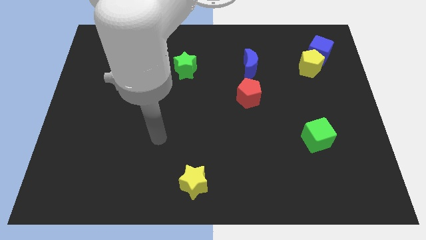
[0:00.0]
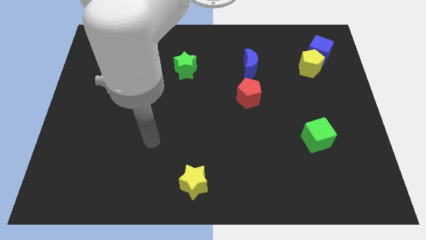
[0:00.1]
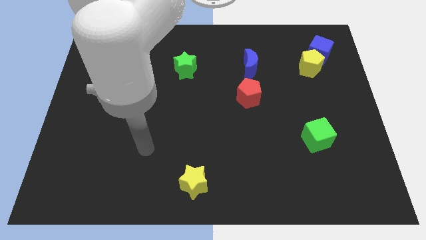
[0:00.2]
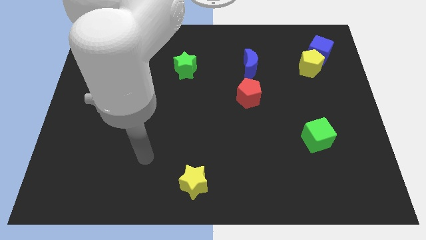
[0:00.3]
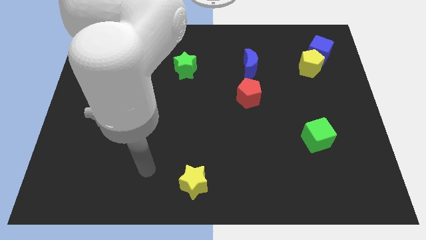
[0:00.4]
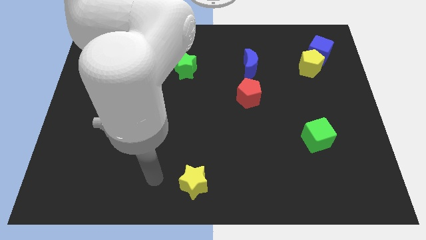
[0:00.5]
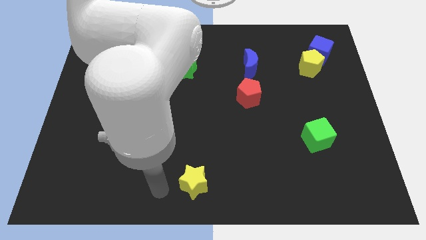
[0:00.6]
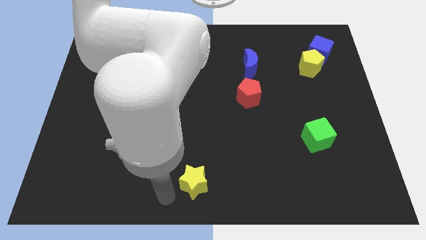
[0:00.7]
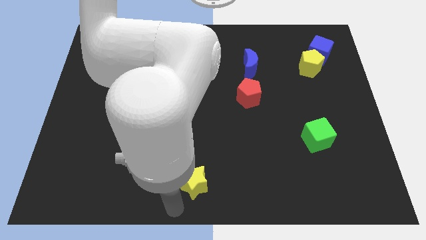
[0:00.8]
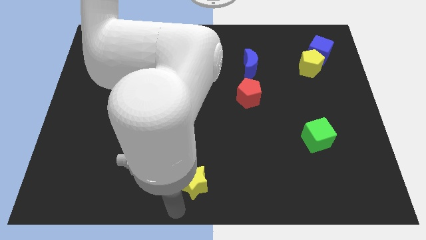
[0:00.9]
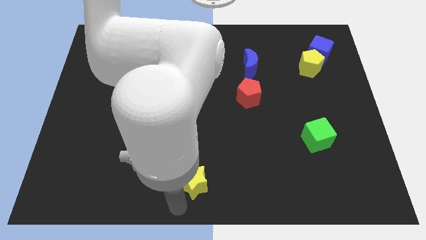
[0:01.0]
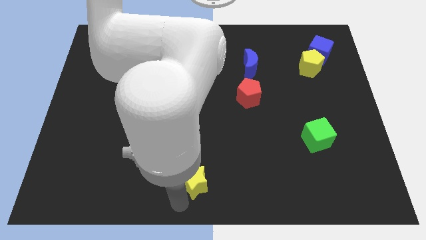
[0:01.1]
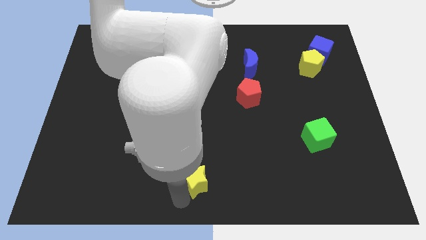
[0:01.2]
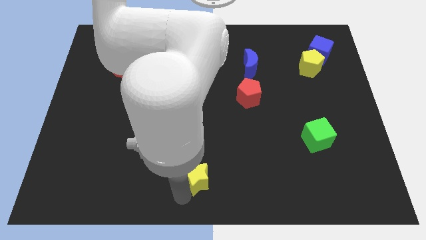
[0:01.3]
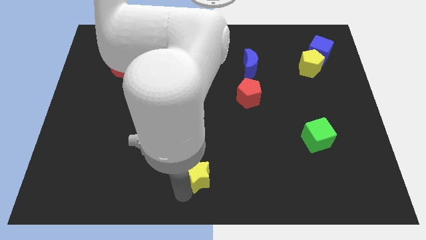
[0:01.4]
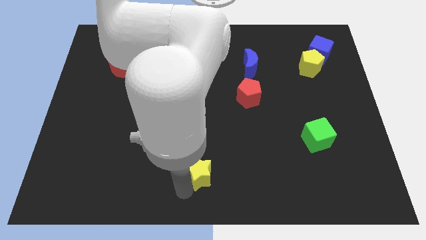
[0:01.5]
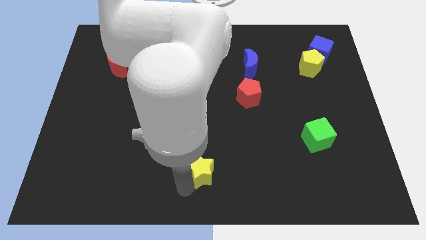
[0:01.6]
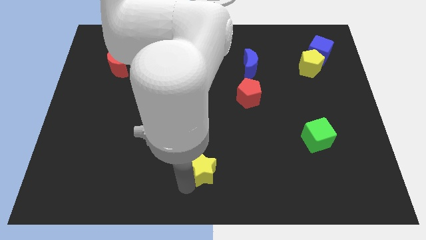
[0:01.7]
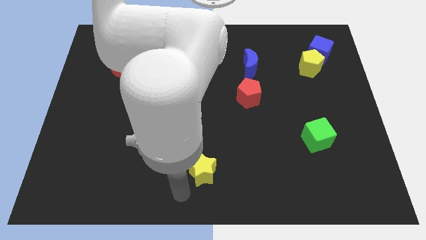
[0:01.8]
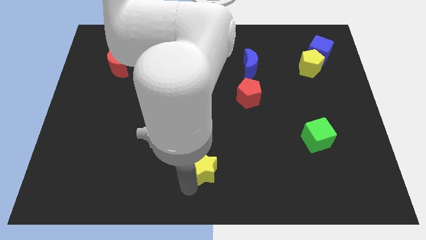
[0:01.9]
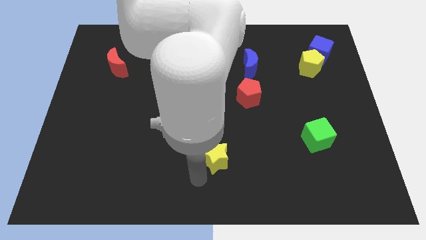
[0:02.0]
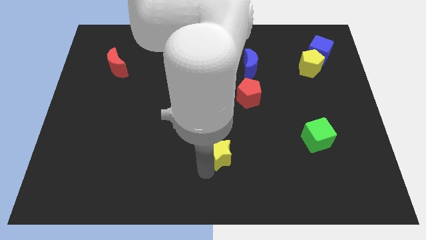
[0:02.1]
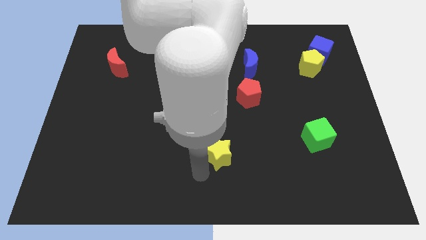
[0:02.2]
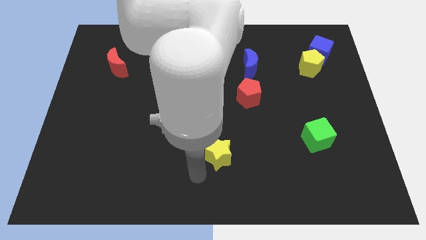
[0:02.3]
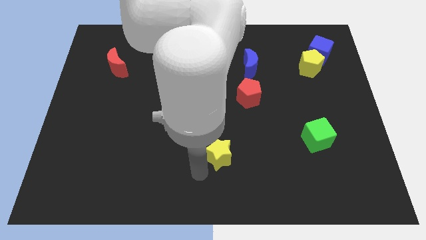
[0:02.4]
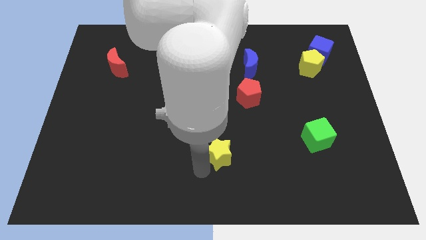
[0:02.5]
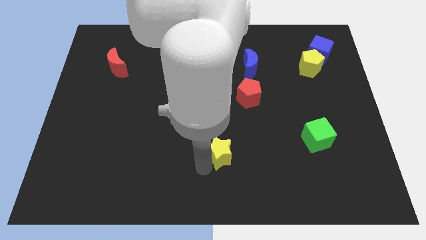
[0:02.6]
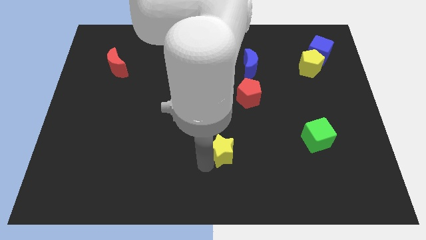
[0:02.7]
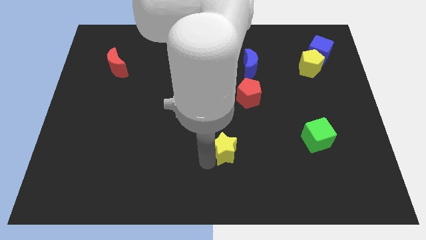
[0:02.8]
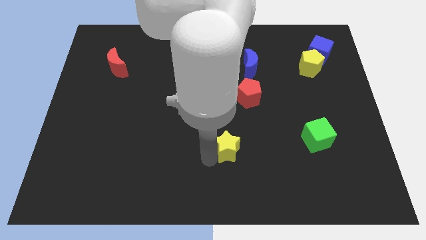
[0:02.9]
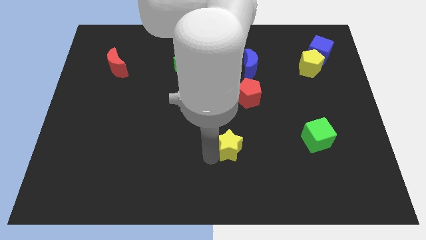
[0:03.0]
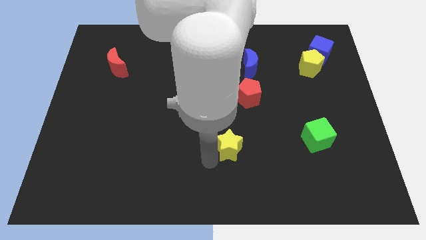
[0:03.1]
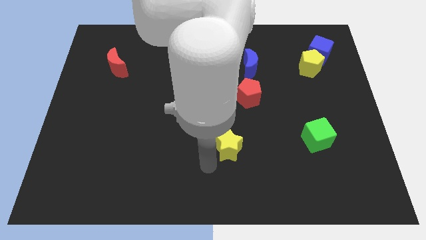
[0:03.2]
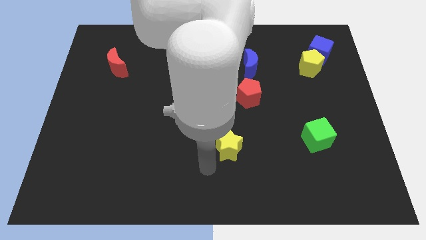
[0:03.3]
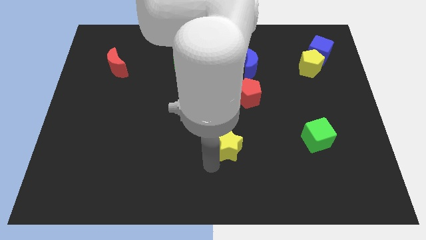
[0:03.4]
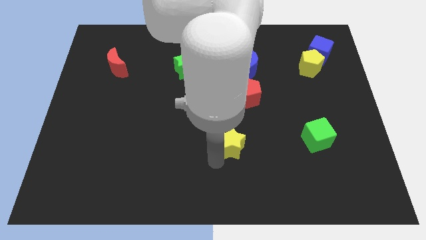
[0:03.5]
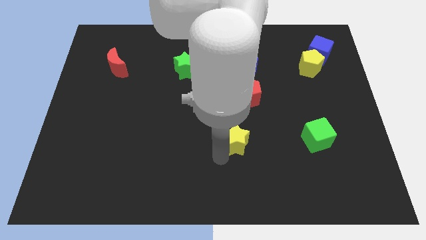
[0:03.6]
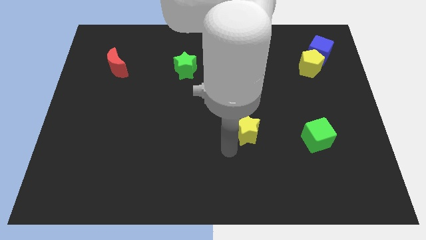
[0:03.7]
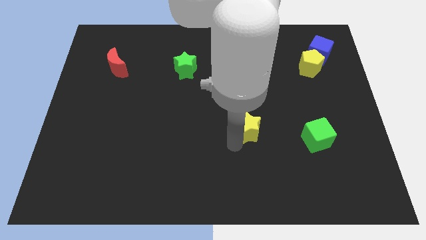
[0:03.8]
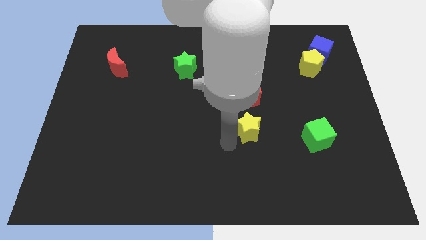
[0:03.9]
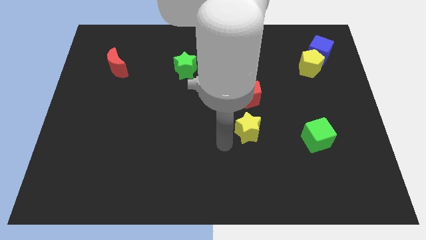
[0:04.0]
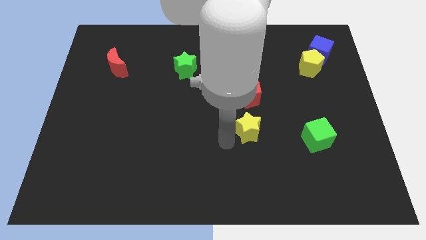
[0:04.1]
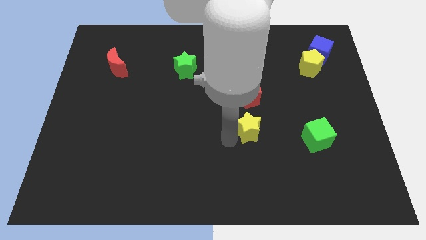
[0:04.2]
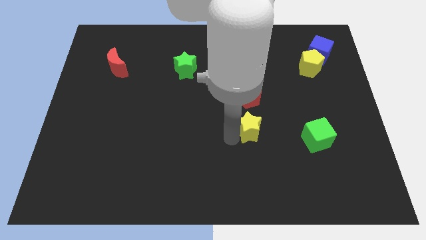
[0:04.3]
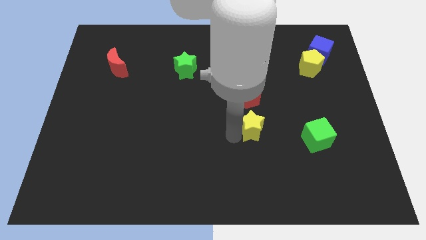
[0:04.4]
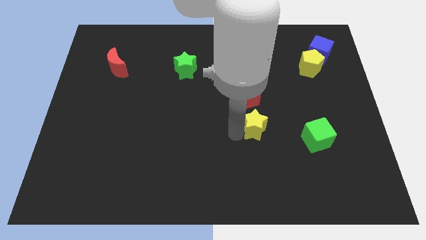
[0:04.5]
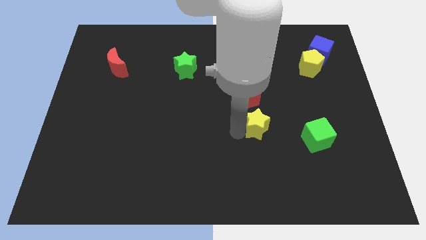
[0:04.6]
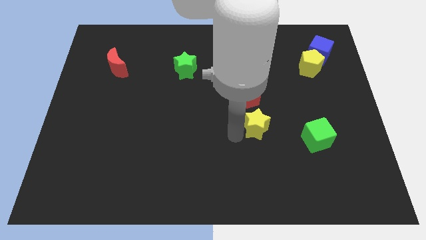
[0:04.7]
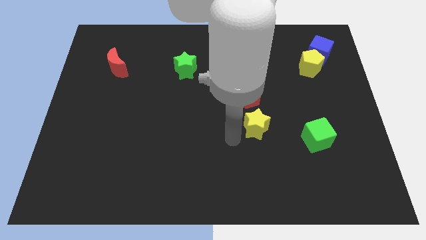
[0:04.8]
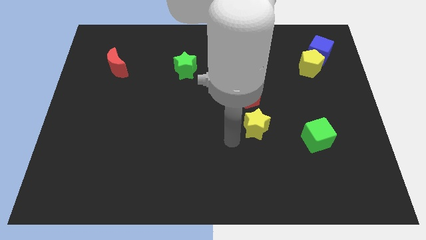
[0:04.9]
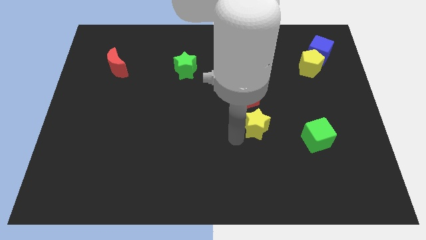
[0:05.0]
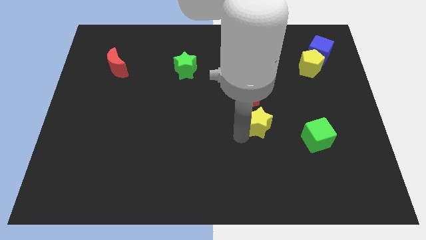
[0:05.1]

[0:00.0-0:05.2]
push the yellow star upwards and then right

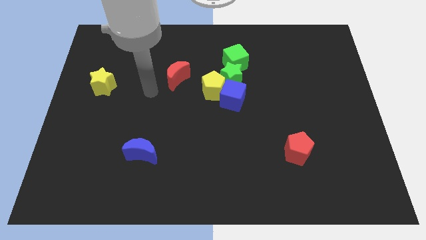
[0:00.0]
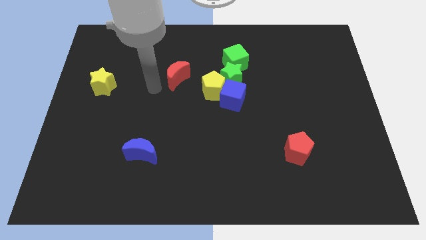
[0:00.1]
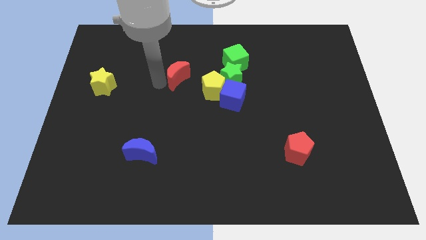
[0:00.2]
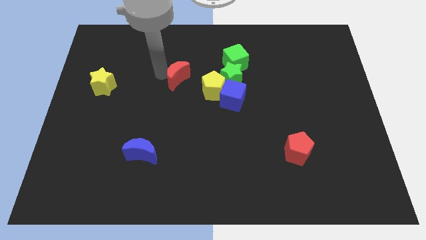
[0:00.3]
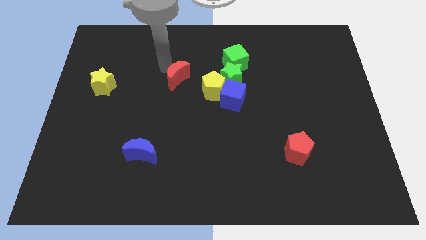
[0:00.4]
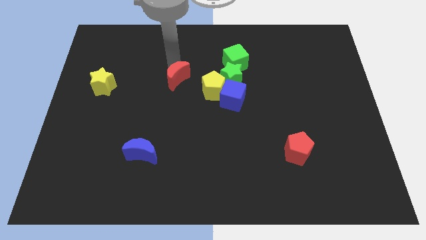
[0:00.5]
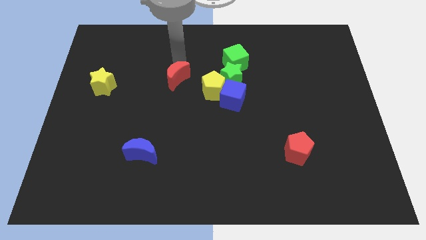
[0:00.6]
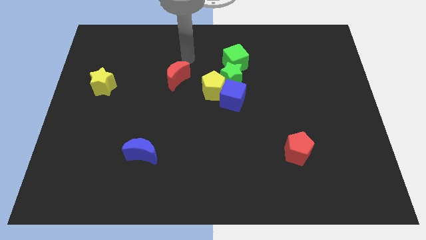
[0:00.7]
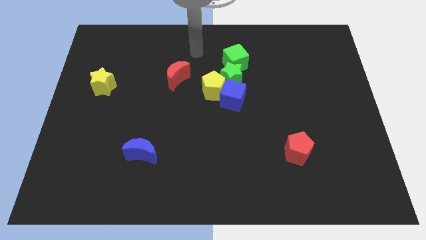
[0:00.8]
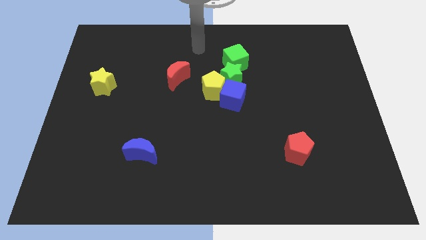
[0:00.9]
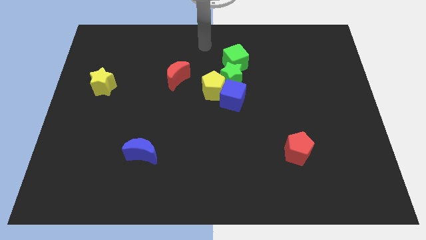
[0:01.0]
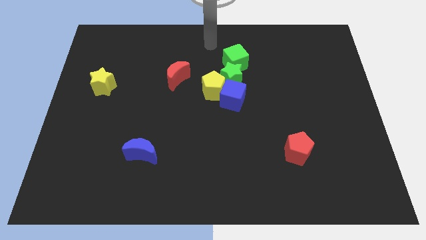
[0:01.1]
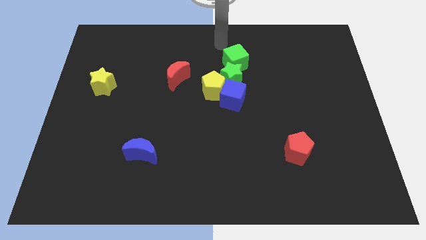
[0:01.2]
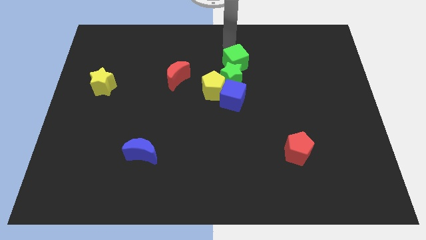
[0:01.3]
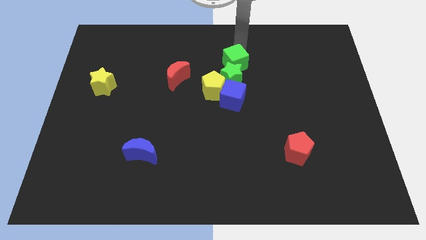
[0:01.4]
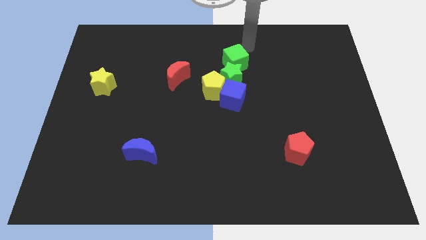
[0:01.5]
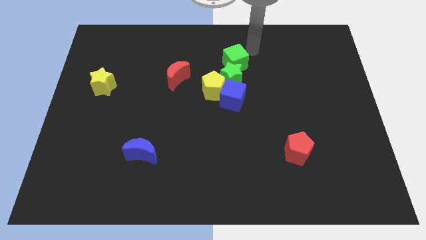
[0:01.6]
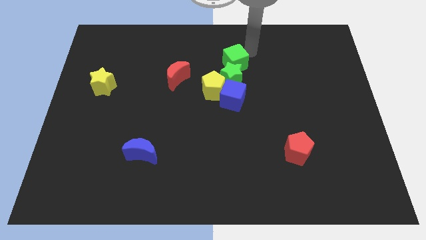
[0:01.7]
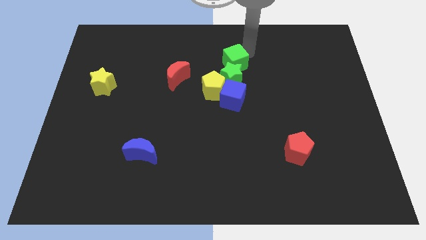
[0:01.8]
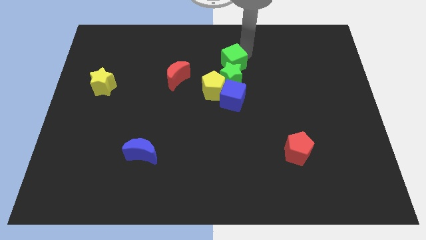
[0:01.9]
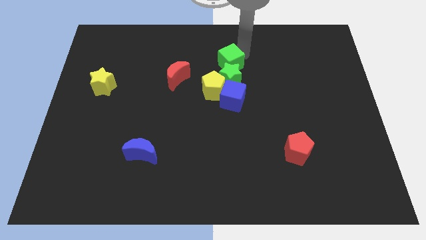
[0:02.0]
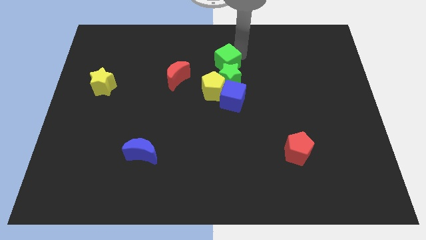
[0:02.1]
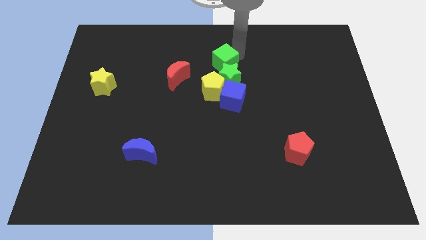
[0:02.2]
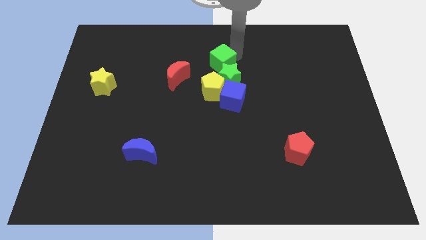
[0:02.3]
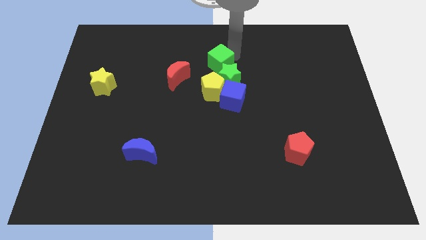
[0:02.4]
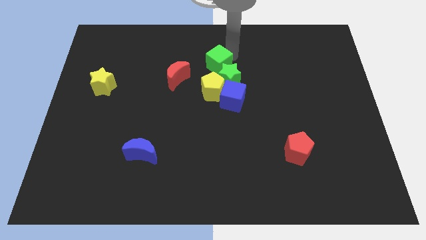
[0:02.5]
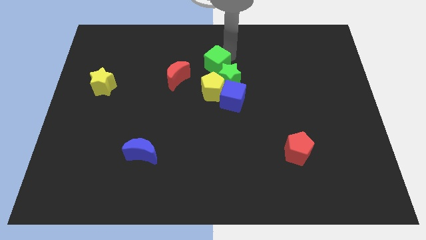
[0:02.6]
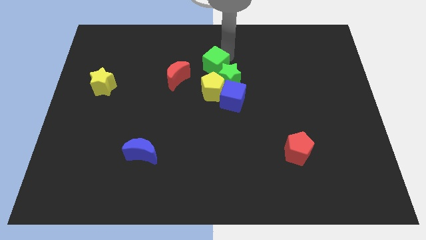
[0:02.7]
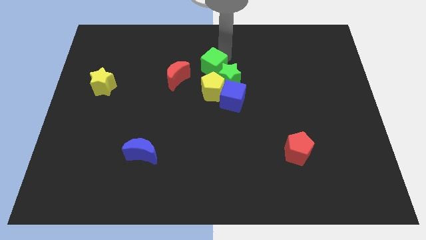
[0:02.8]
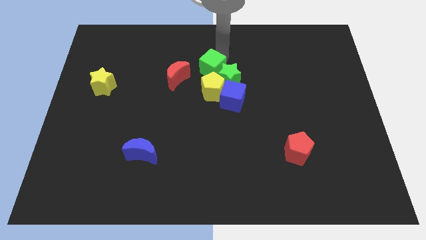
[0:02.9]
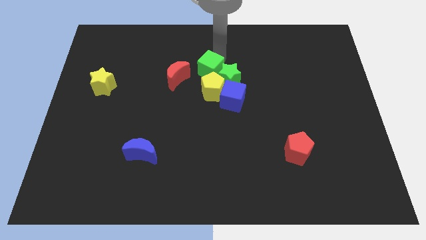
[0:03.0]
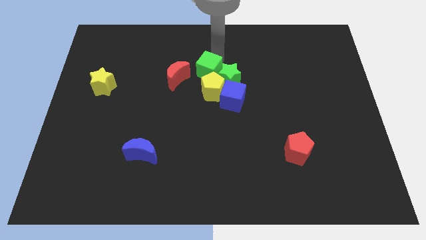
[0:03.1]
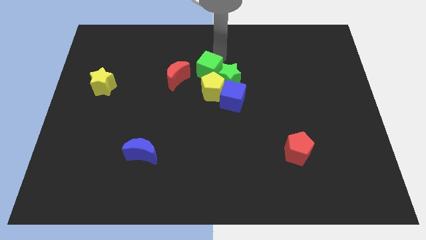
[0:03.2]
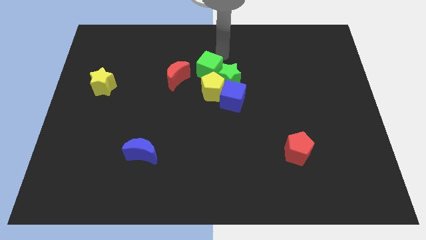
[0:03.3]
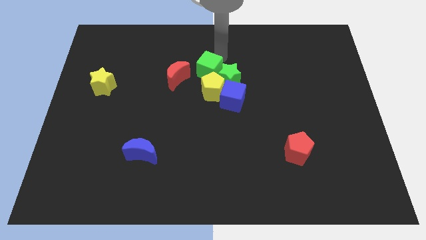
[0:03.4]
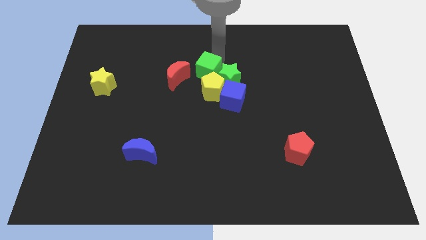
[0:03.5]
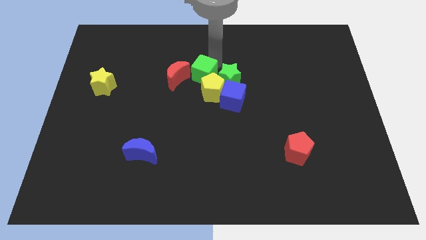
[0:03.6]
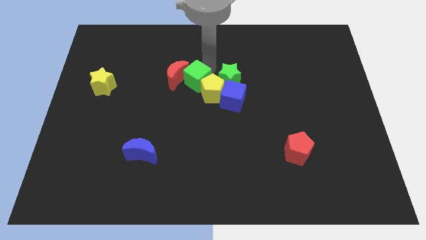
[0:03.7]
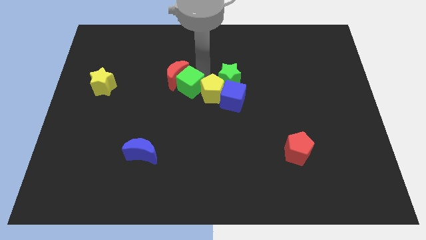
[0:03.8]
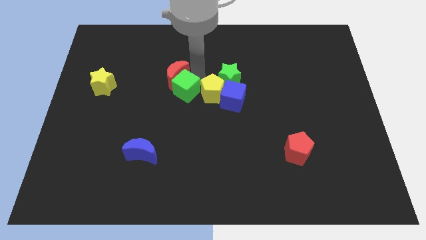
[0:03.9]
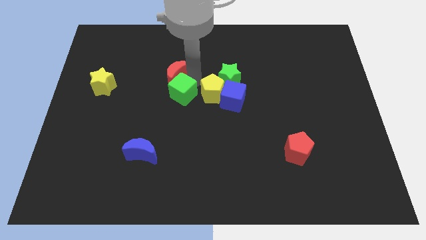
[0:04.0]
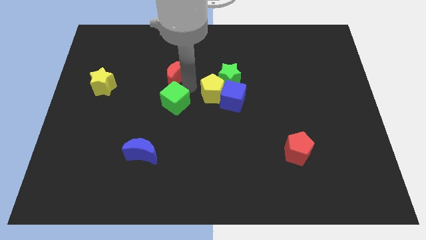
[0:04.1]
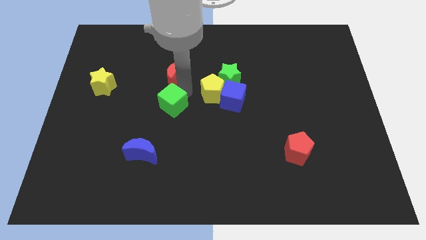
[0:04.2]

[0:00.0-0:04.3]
slide the green cube downwards and to the left
